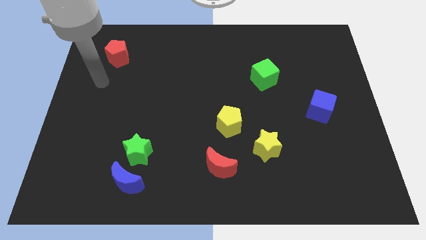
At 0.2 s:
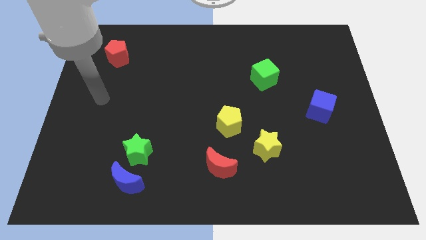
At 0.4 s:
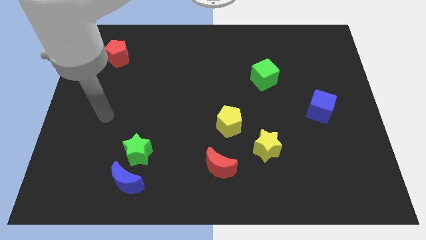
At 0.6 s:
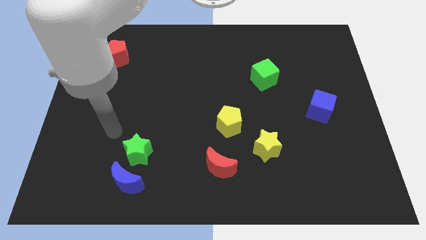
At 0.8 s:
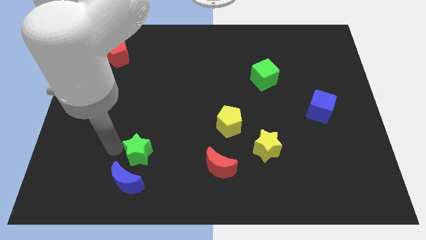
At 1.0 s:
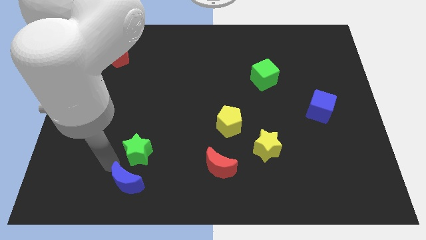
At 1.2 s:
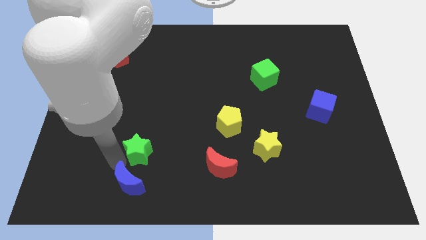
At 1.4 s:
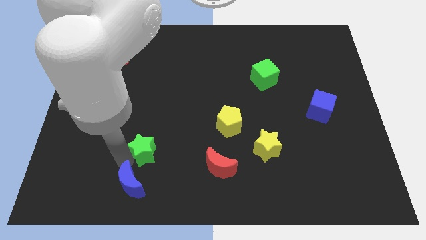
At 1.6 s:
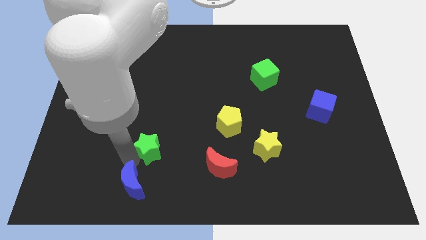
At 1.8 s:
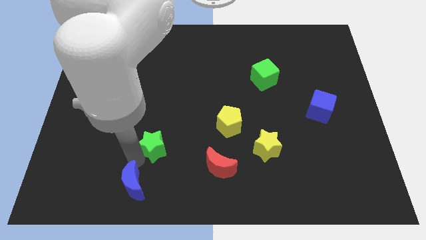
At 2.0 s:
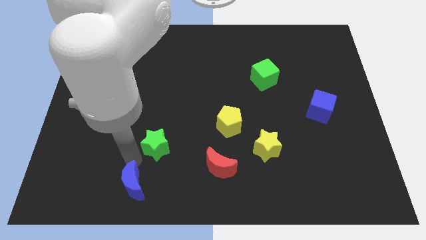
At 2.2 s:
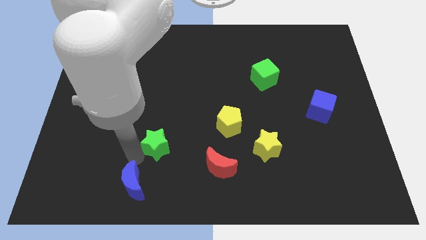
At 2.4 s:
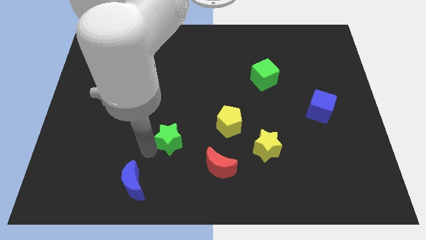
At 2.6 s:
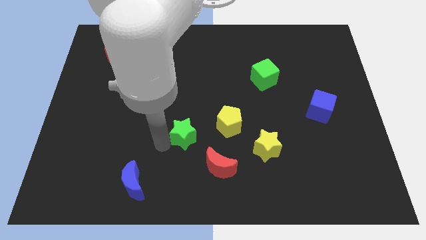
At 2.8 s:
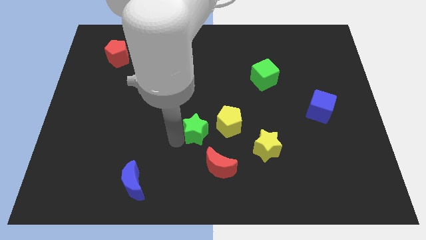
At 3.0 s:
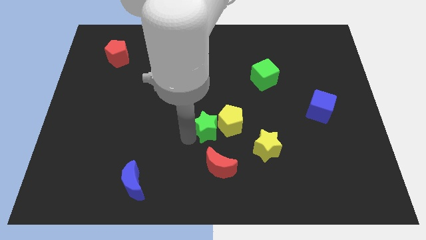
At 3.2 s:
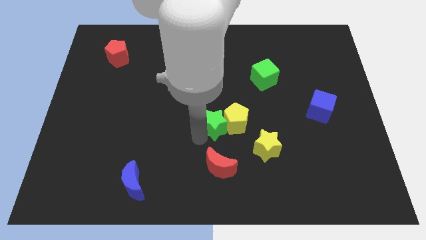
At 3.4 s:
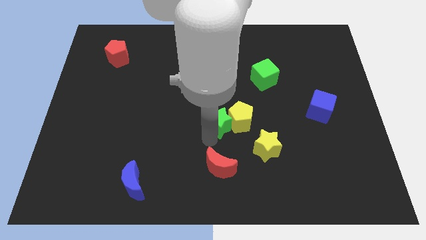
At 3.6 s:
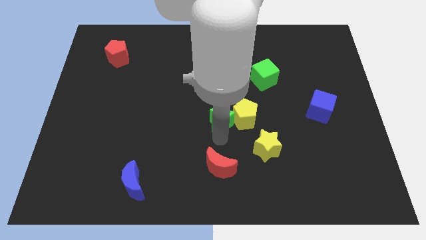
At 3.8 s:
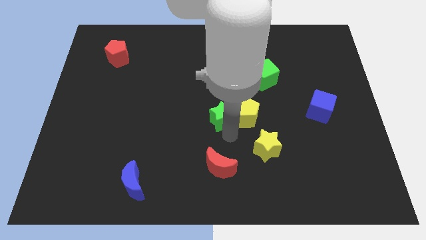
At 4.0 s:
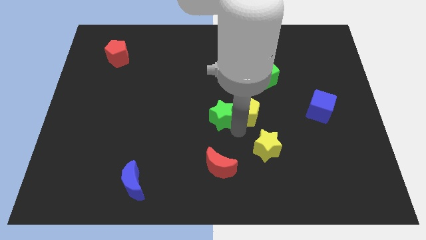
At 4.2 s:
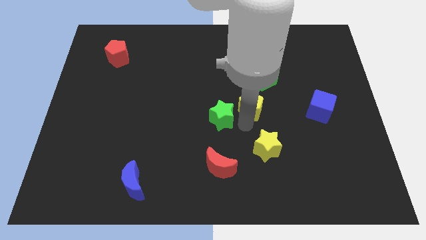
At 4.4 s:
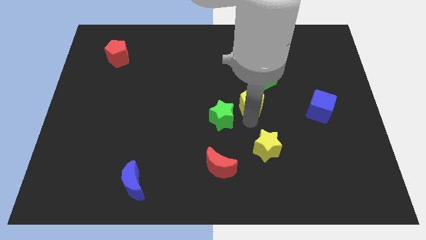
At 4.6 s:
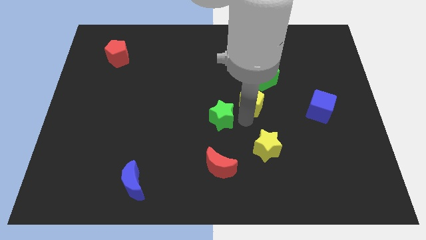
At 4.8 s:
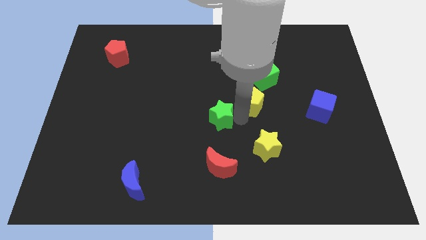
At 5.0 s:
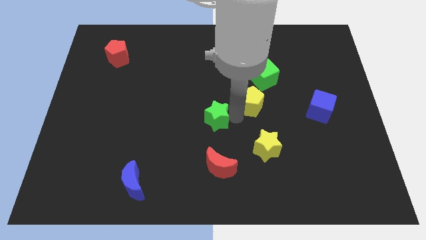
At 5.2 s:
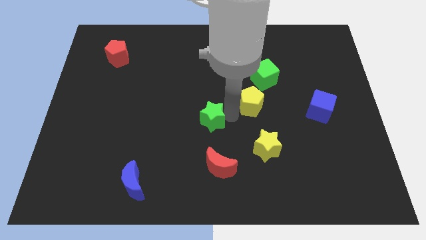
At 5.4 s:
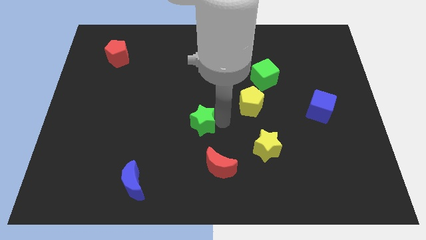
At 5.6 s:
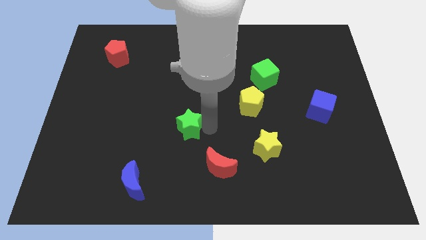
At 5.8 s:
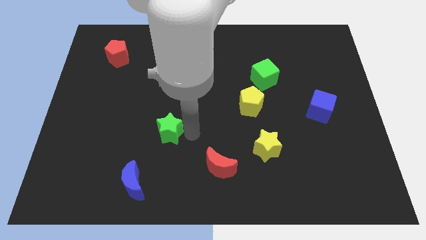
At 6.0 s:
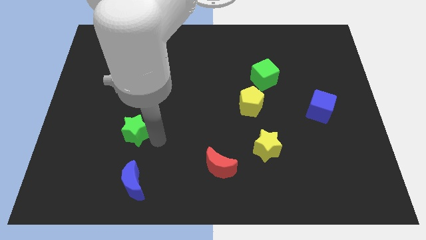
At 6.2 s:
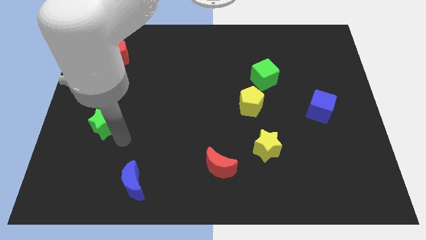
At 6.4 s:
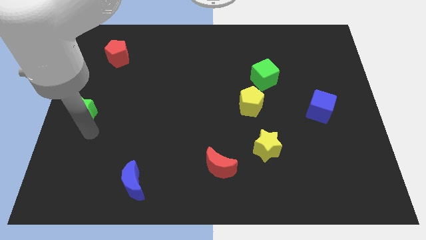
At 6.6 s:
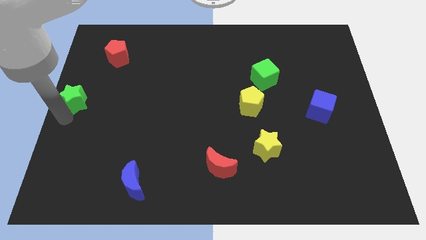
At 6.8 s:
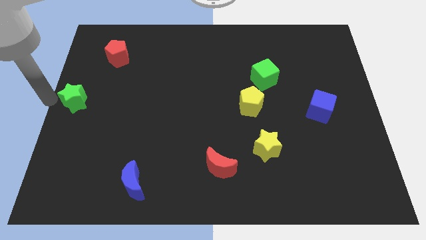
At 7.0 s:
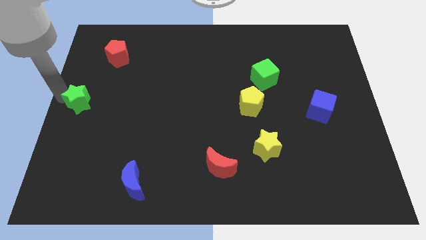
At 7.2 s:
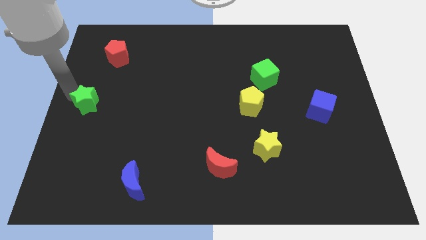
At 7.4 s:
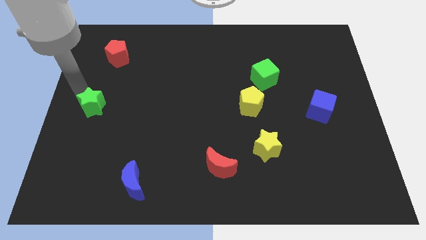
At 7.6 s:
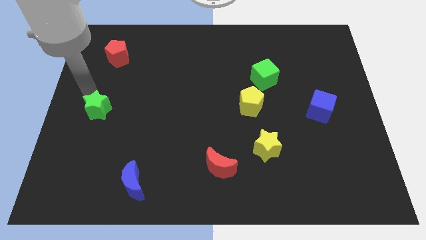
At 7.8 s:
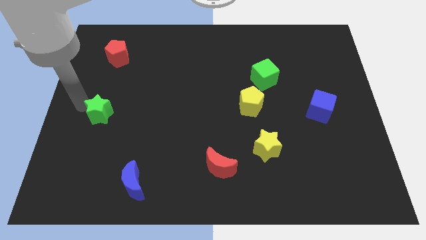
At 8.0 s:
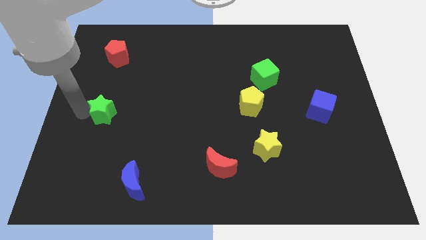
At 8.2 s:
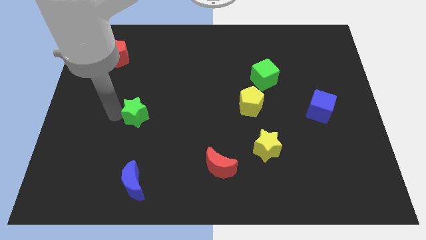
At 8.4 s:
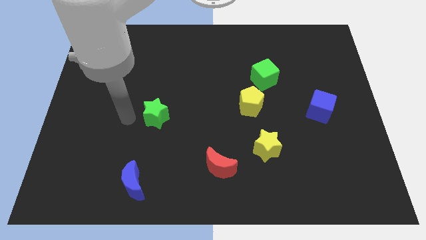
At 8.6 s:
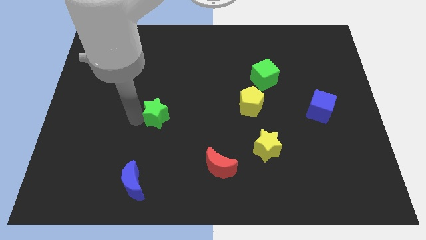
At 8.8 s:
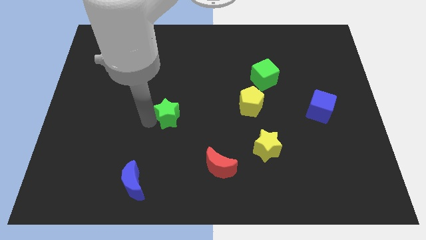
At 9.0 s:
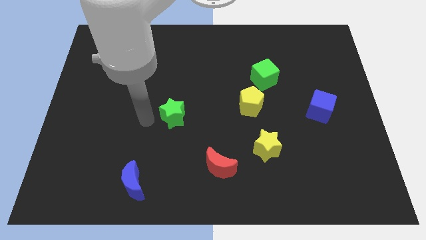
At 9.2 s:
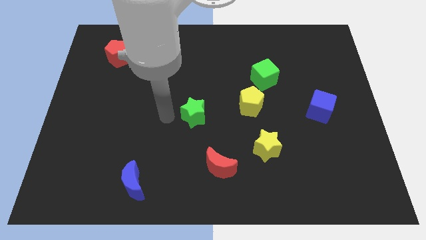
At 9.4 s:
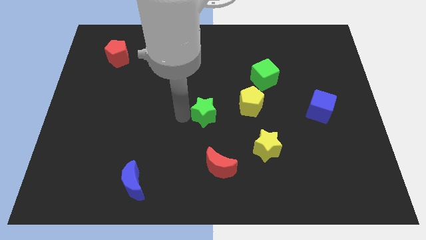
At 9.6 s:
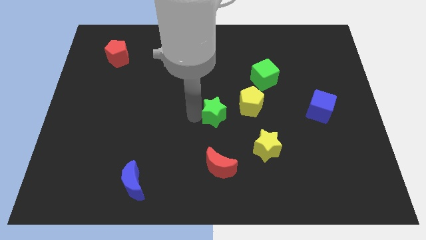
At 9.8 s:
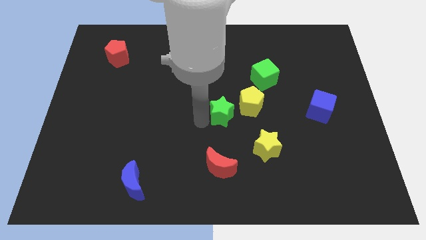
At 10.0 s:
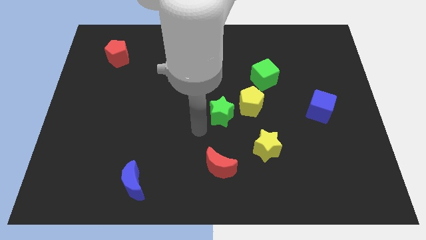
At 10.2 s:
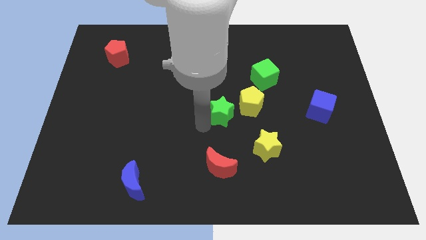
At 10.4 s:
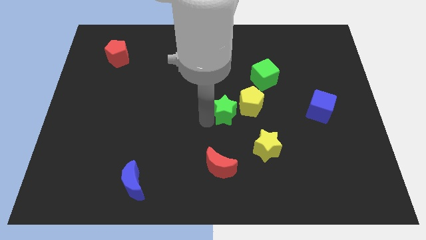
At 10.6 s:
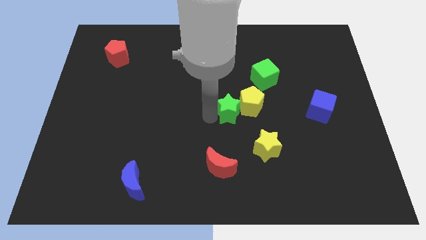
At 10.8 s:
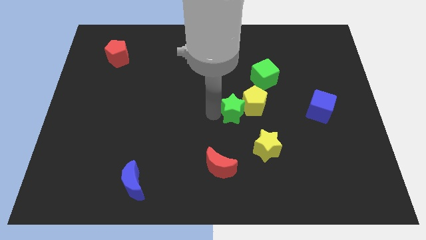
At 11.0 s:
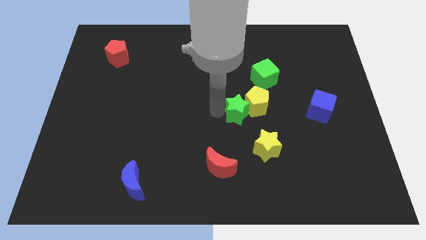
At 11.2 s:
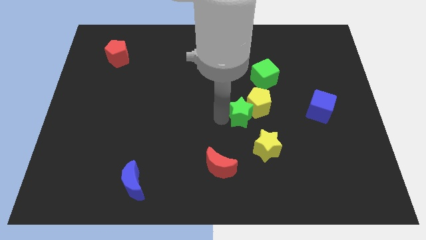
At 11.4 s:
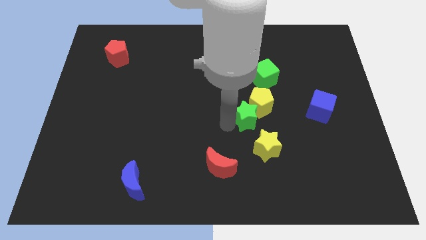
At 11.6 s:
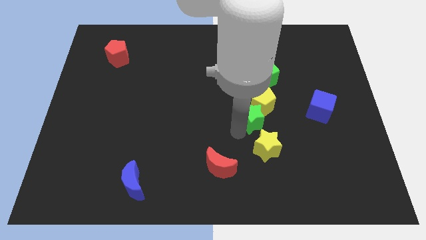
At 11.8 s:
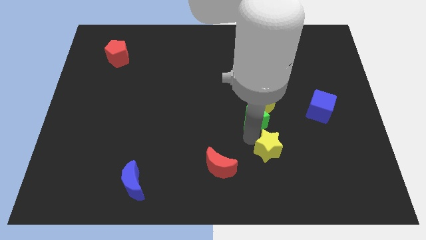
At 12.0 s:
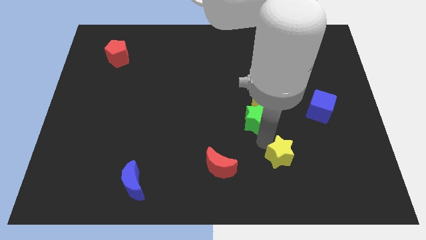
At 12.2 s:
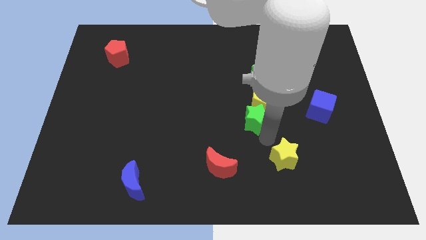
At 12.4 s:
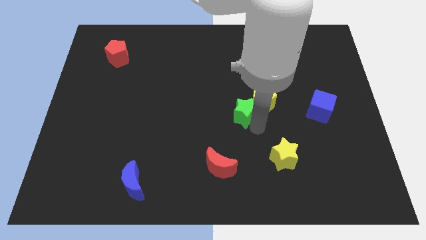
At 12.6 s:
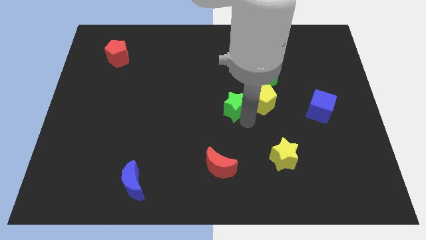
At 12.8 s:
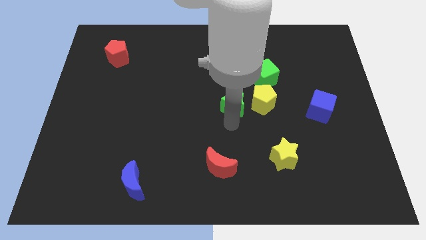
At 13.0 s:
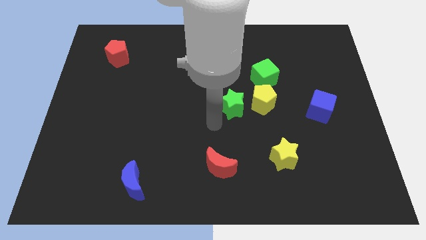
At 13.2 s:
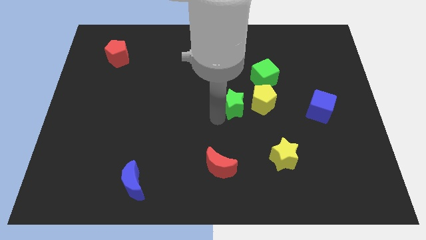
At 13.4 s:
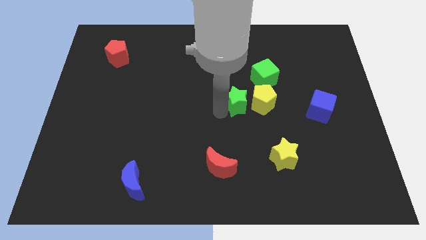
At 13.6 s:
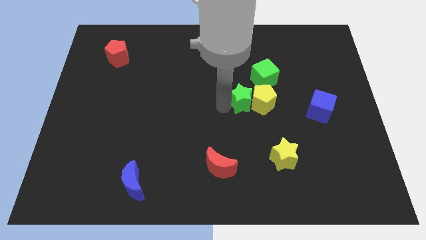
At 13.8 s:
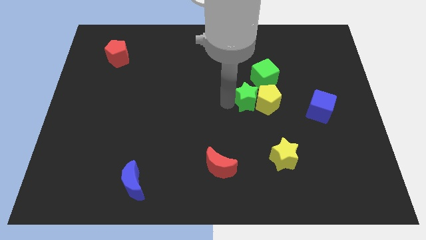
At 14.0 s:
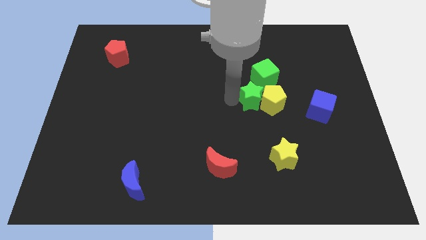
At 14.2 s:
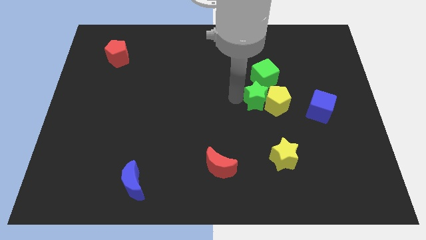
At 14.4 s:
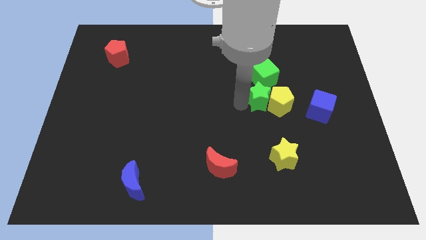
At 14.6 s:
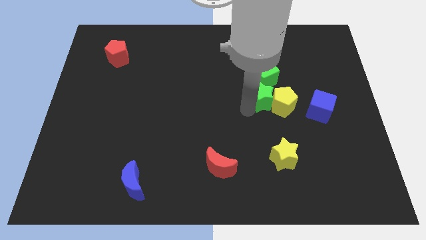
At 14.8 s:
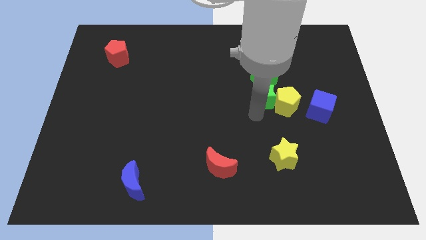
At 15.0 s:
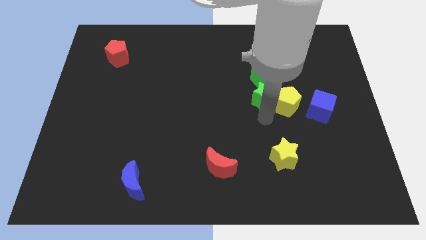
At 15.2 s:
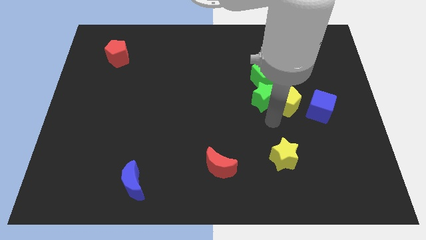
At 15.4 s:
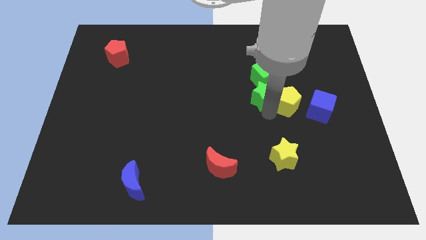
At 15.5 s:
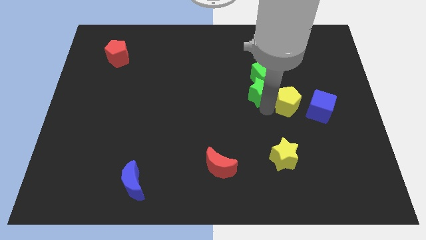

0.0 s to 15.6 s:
push the green star close to the green cube
